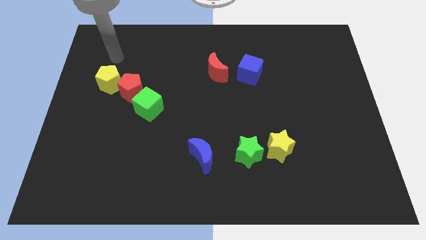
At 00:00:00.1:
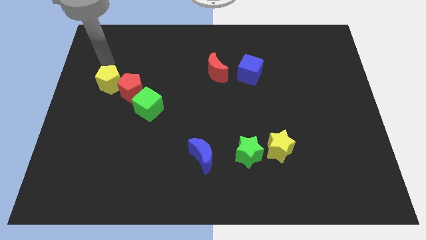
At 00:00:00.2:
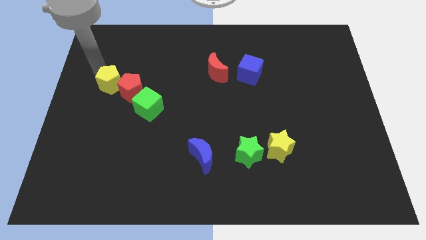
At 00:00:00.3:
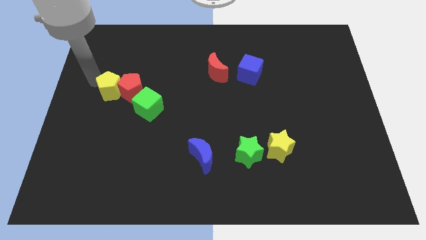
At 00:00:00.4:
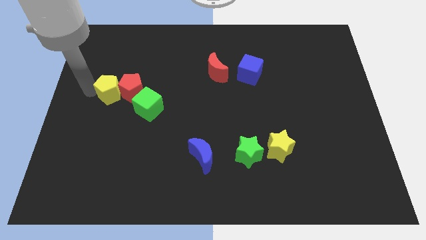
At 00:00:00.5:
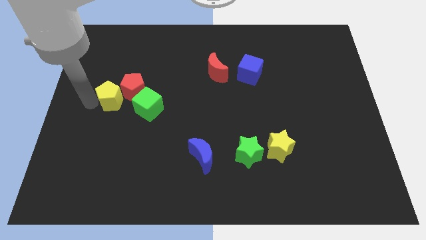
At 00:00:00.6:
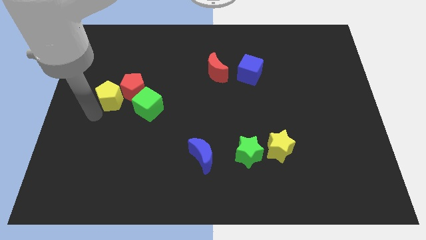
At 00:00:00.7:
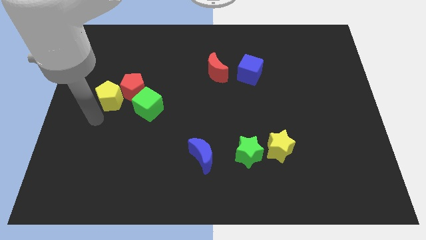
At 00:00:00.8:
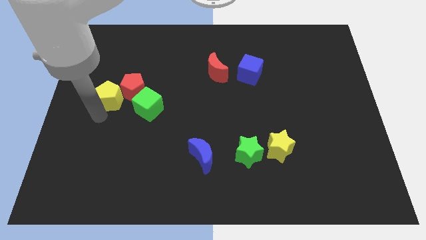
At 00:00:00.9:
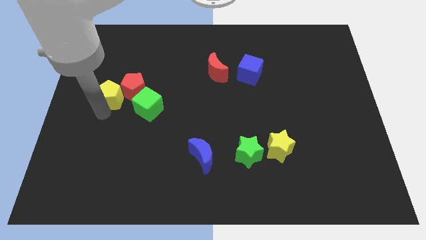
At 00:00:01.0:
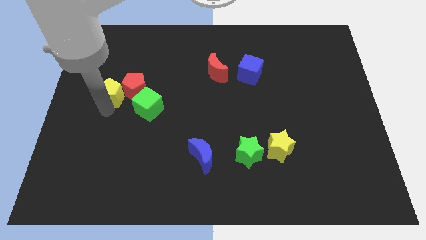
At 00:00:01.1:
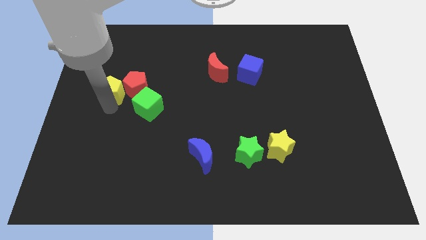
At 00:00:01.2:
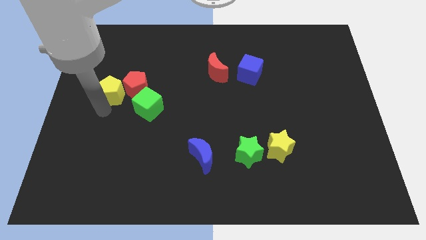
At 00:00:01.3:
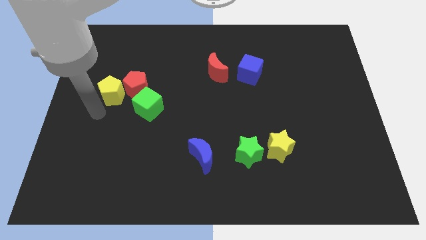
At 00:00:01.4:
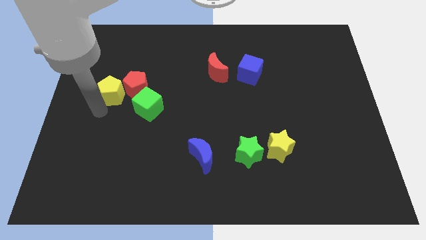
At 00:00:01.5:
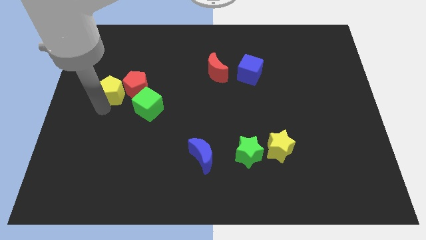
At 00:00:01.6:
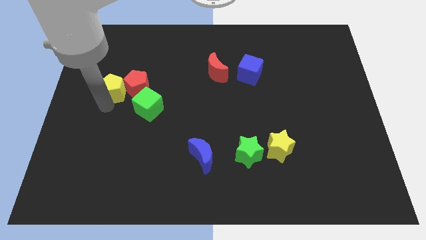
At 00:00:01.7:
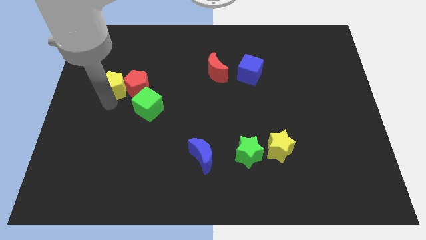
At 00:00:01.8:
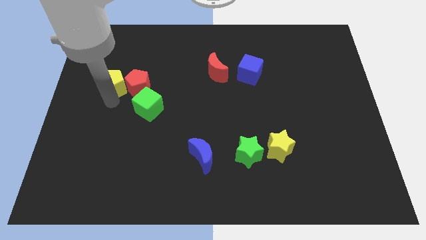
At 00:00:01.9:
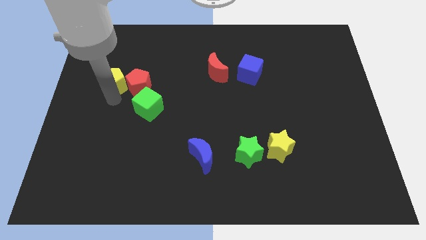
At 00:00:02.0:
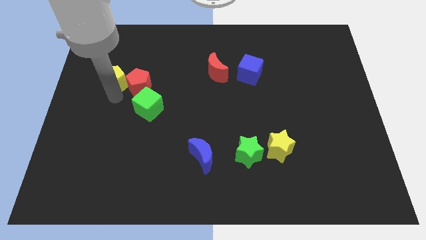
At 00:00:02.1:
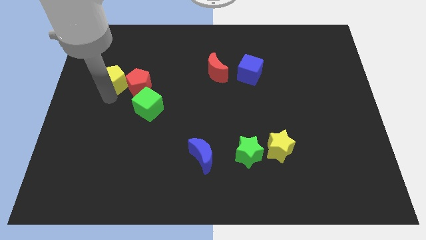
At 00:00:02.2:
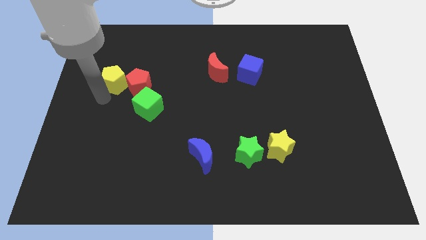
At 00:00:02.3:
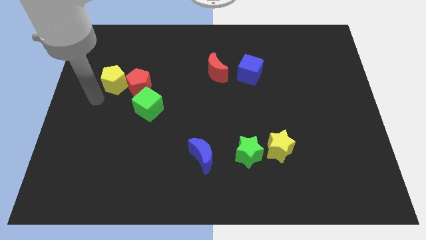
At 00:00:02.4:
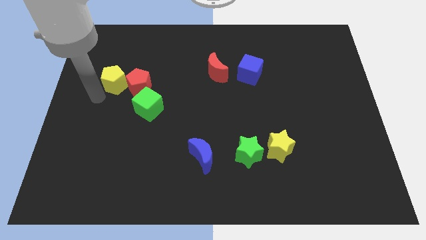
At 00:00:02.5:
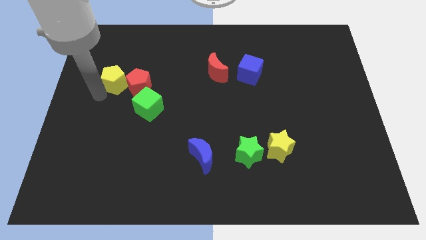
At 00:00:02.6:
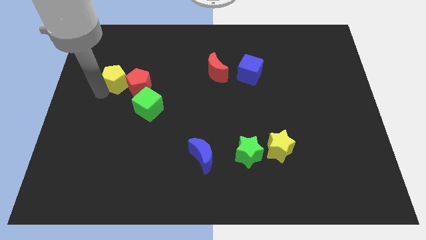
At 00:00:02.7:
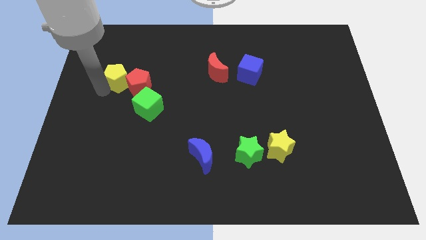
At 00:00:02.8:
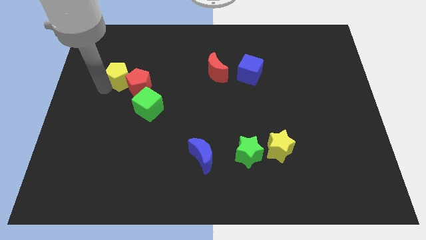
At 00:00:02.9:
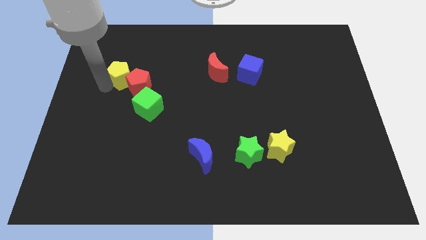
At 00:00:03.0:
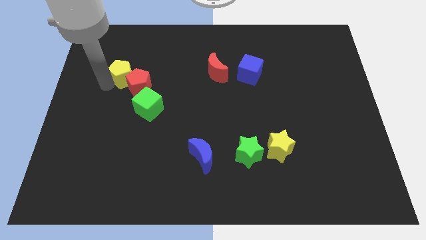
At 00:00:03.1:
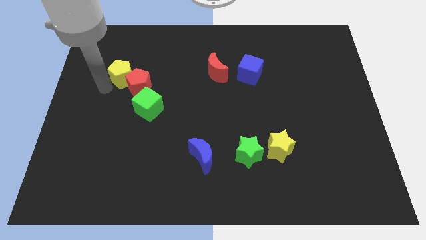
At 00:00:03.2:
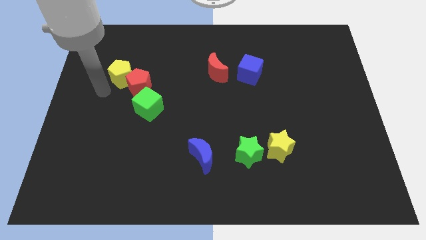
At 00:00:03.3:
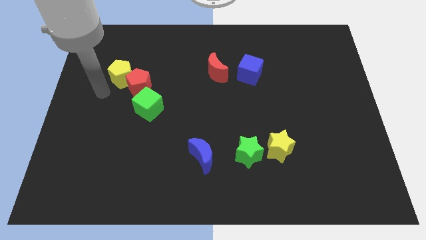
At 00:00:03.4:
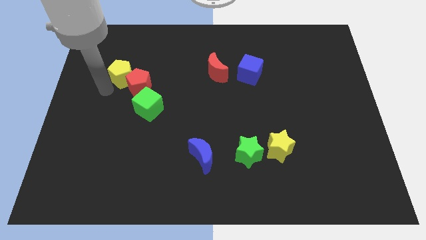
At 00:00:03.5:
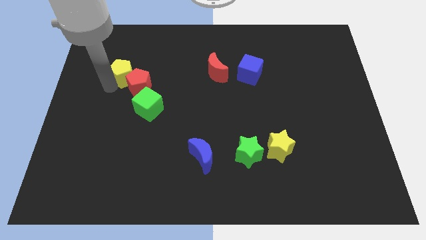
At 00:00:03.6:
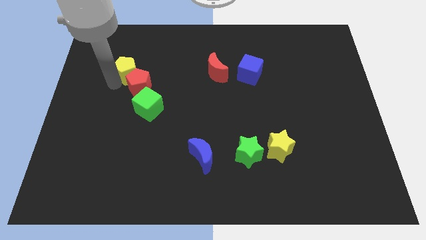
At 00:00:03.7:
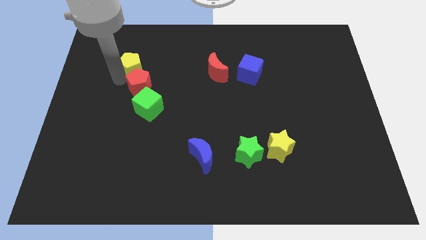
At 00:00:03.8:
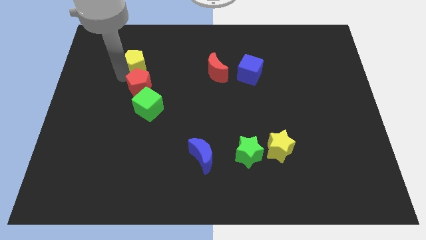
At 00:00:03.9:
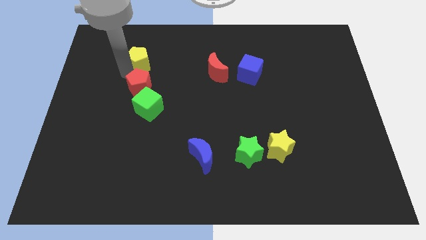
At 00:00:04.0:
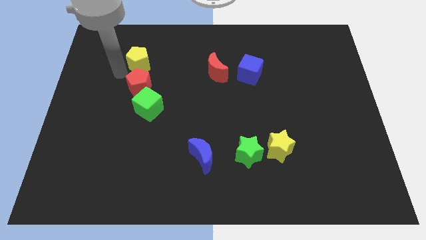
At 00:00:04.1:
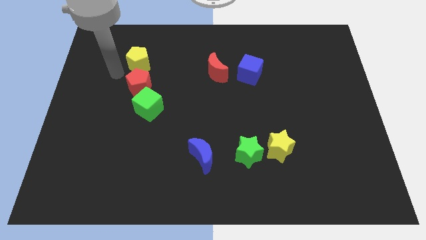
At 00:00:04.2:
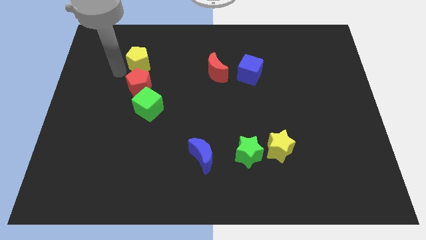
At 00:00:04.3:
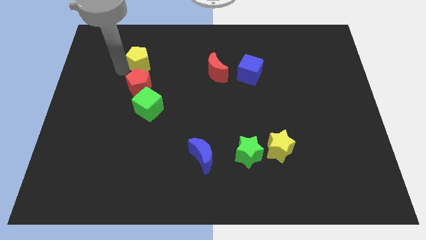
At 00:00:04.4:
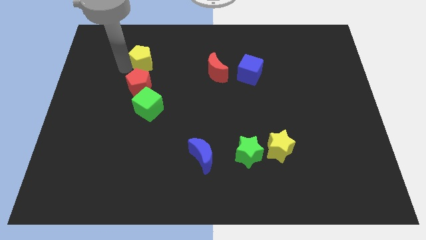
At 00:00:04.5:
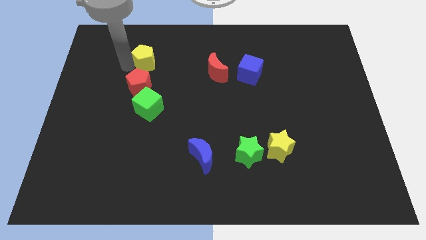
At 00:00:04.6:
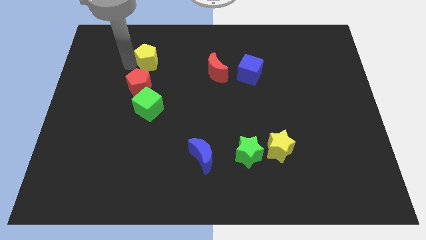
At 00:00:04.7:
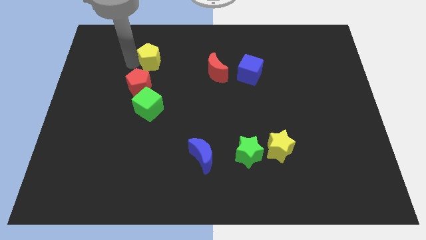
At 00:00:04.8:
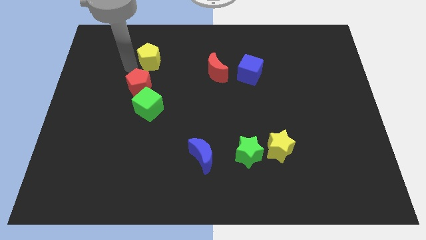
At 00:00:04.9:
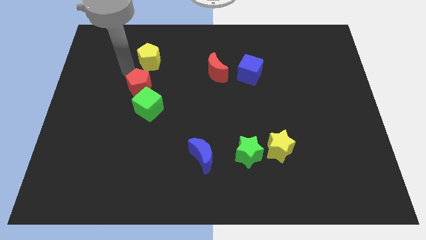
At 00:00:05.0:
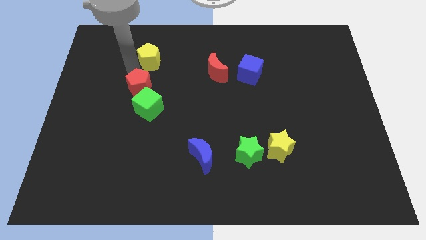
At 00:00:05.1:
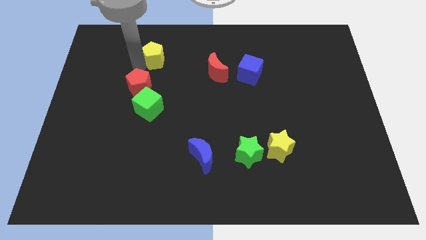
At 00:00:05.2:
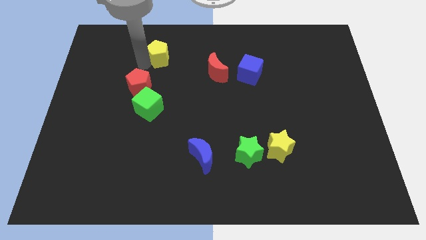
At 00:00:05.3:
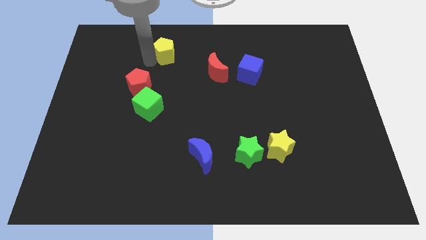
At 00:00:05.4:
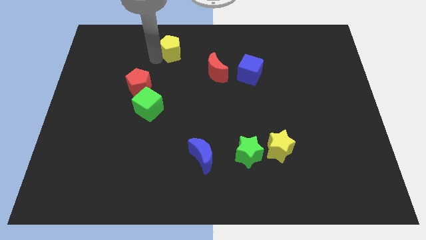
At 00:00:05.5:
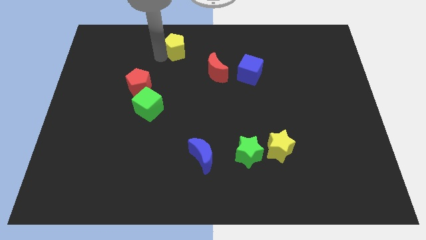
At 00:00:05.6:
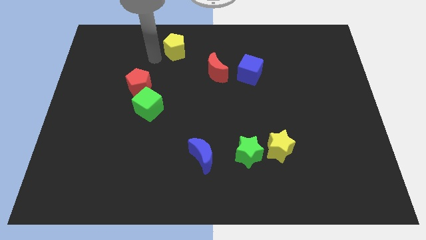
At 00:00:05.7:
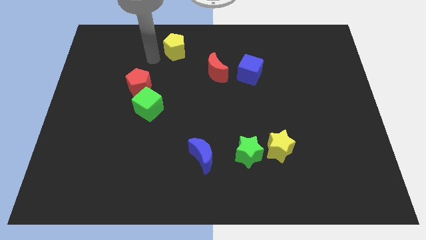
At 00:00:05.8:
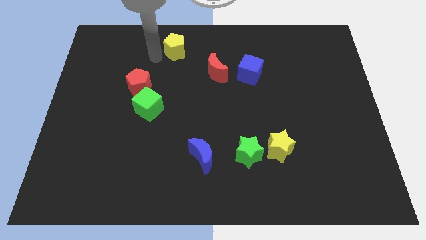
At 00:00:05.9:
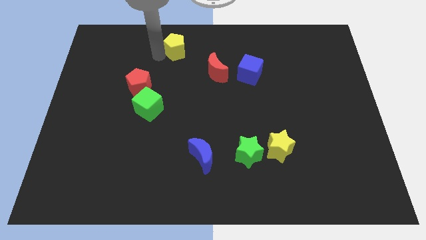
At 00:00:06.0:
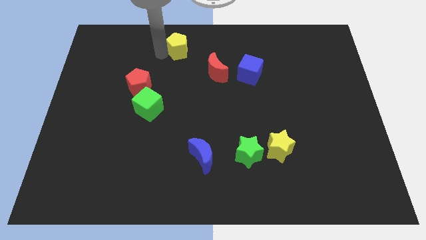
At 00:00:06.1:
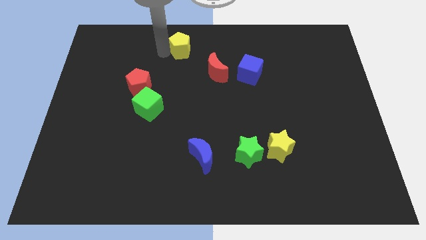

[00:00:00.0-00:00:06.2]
move the yellow pentagon to the top

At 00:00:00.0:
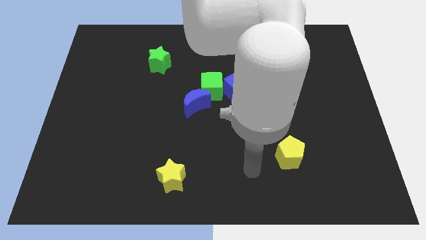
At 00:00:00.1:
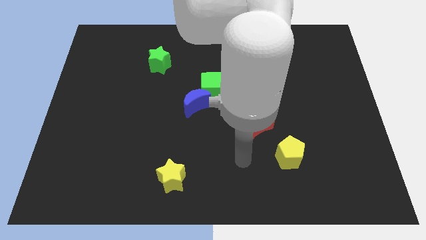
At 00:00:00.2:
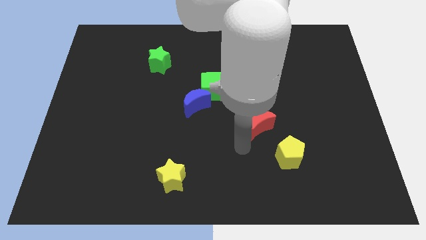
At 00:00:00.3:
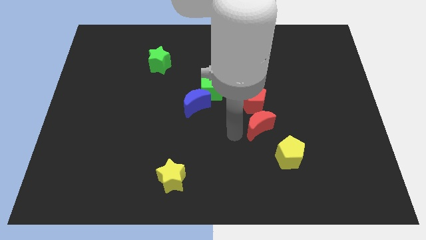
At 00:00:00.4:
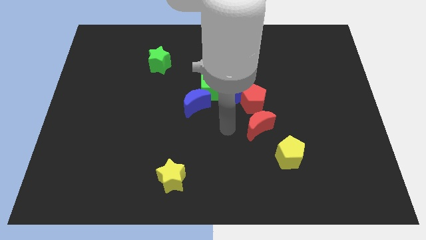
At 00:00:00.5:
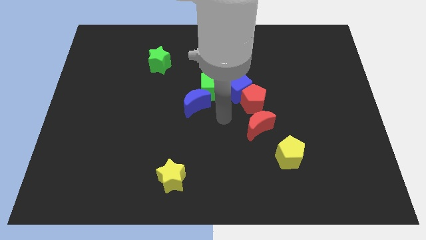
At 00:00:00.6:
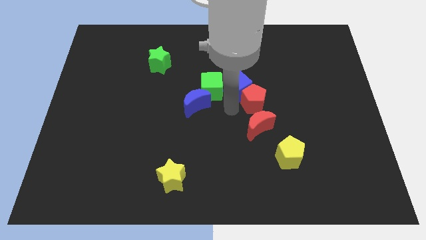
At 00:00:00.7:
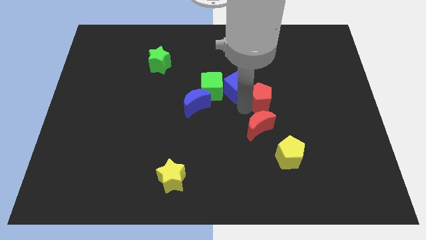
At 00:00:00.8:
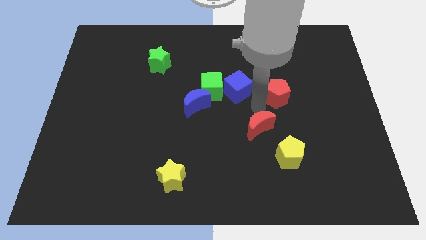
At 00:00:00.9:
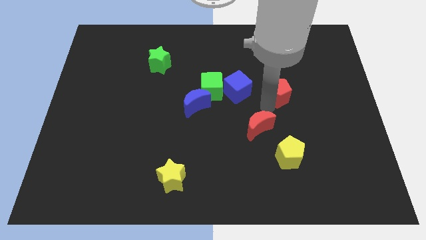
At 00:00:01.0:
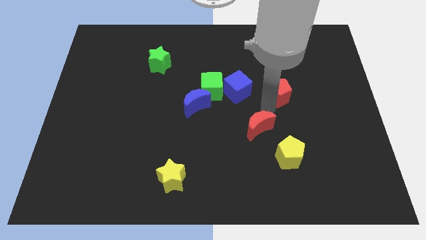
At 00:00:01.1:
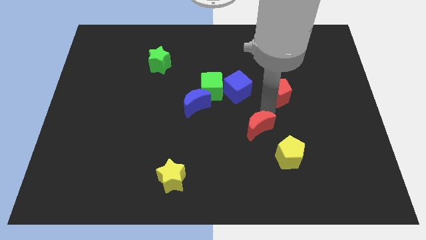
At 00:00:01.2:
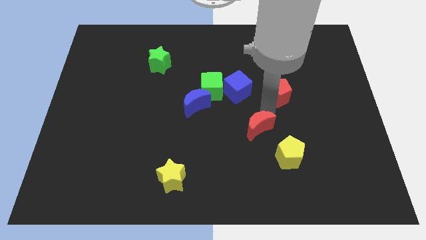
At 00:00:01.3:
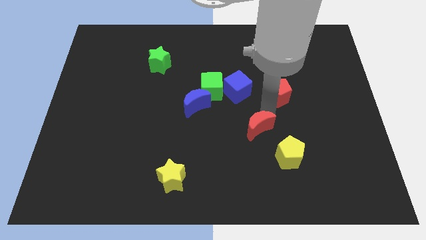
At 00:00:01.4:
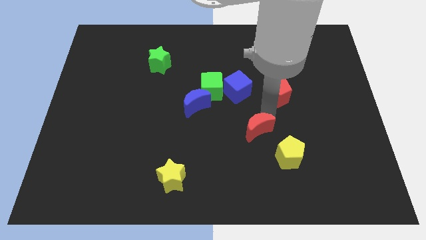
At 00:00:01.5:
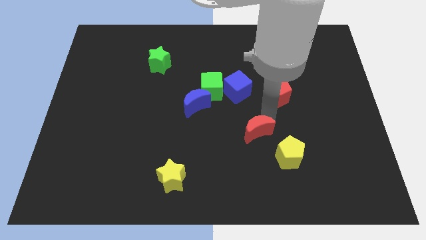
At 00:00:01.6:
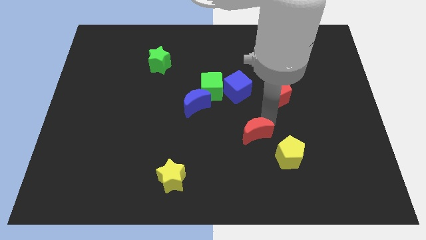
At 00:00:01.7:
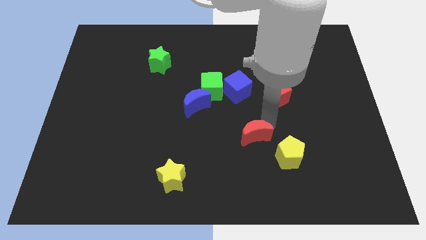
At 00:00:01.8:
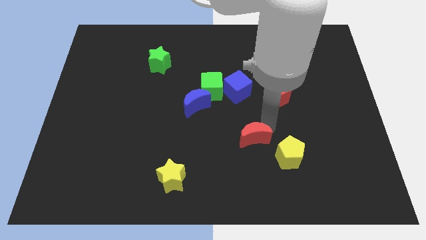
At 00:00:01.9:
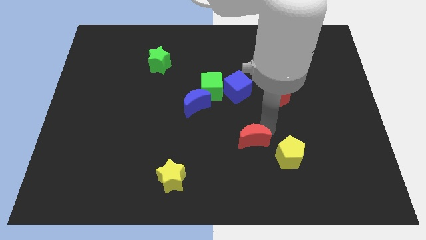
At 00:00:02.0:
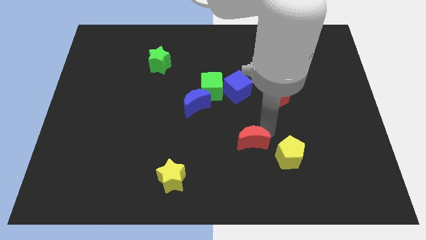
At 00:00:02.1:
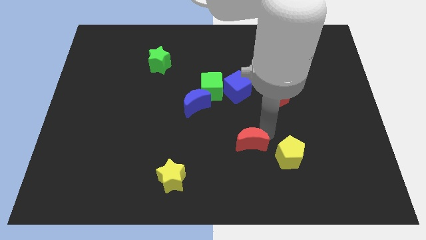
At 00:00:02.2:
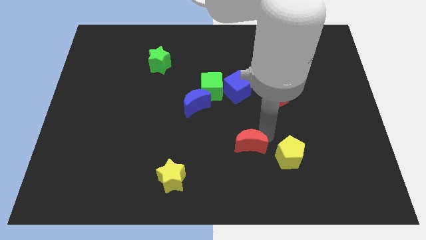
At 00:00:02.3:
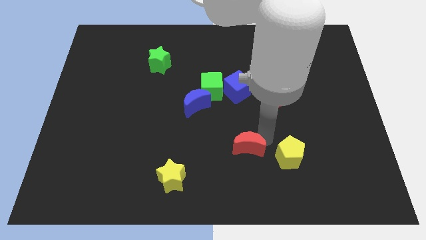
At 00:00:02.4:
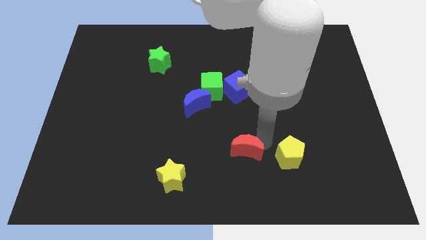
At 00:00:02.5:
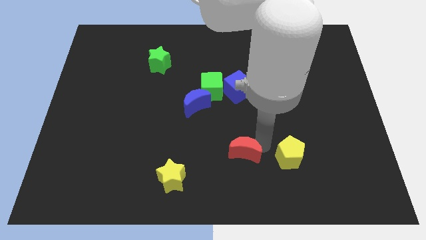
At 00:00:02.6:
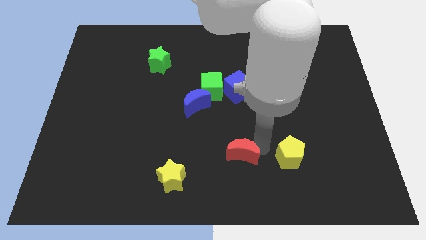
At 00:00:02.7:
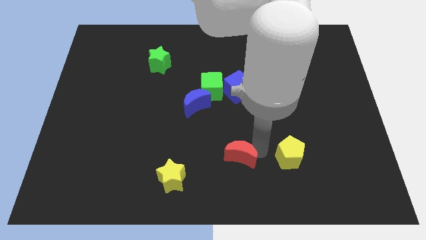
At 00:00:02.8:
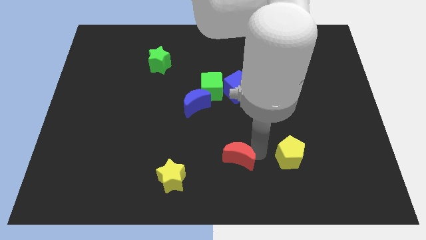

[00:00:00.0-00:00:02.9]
slide the red moon to the bottom side
